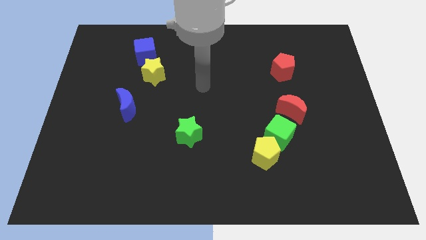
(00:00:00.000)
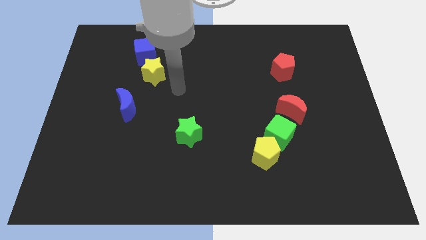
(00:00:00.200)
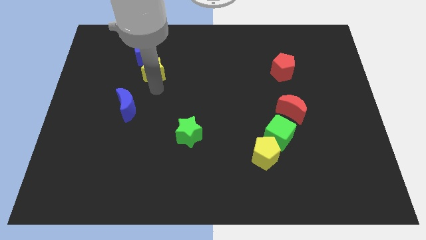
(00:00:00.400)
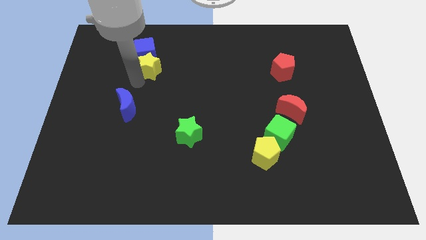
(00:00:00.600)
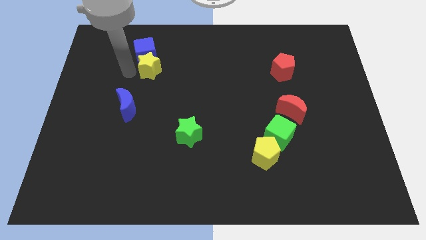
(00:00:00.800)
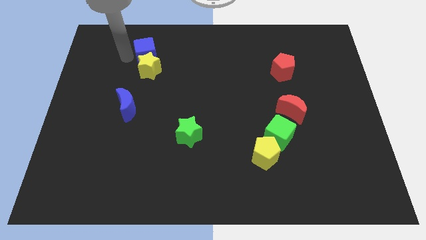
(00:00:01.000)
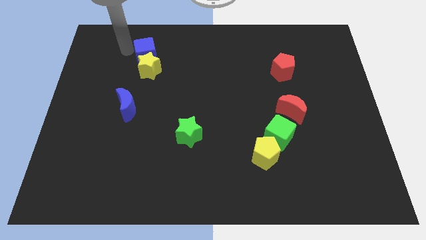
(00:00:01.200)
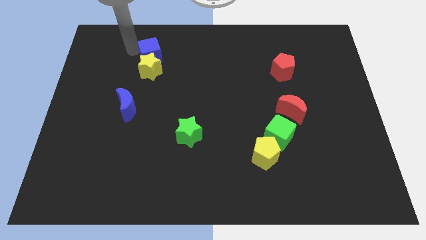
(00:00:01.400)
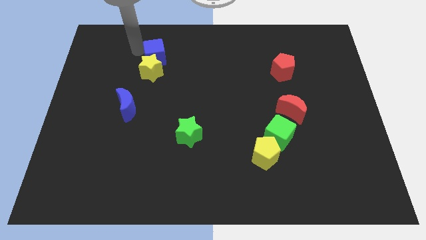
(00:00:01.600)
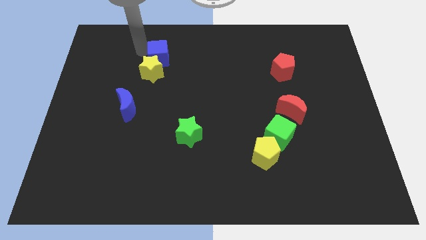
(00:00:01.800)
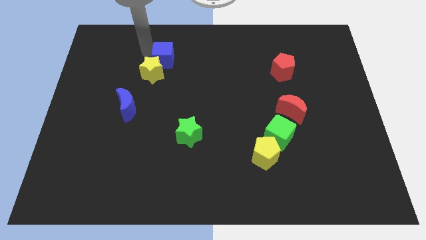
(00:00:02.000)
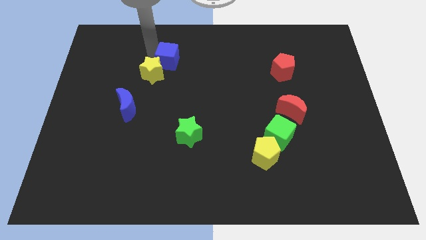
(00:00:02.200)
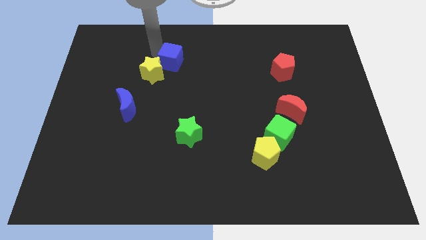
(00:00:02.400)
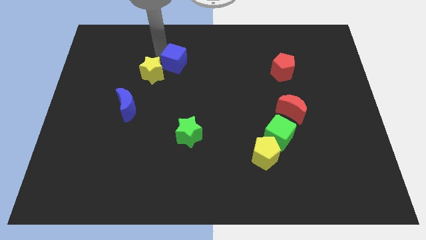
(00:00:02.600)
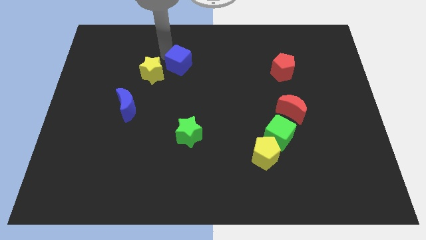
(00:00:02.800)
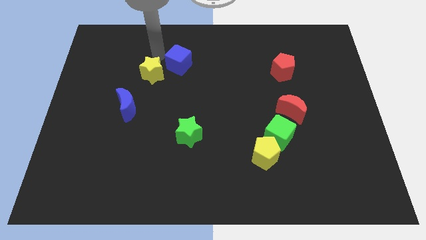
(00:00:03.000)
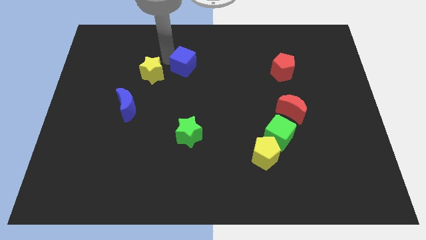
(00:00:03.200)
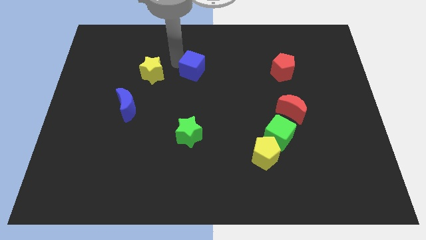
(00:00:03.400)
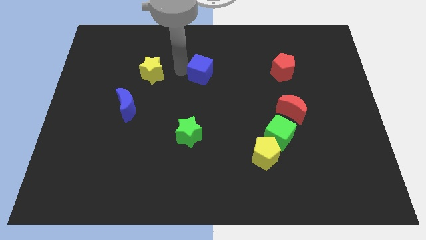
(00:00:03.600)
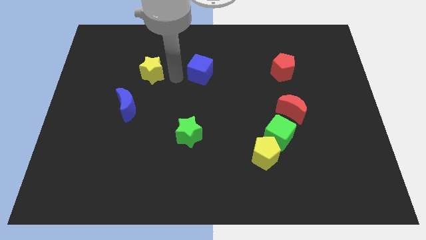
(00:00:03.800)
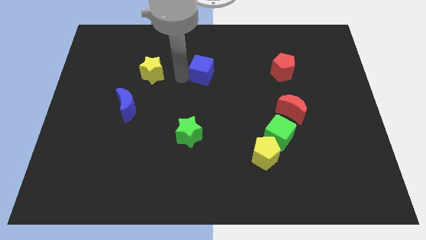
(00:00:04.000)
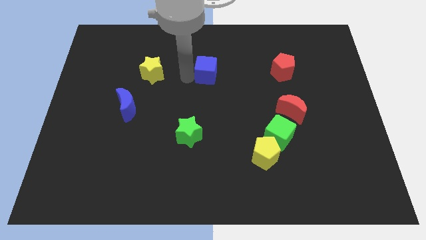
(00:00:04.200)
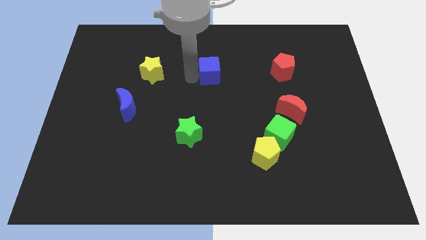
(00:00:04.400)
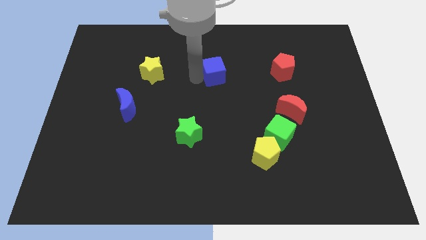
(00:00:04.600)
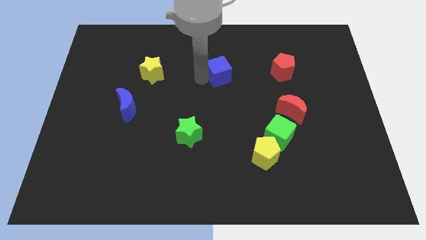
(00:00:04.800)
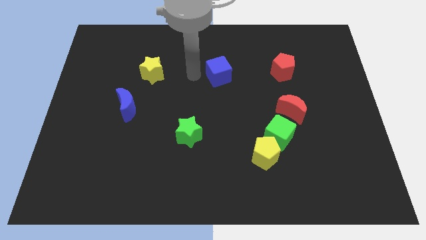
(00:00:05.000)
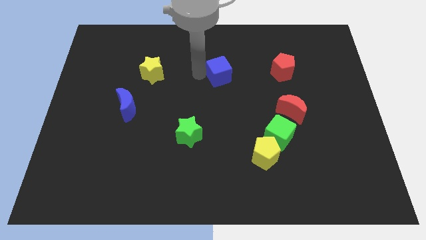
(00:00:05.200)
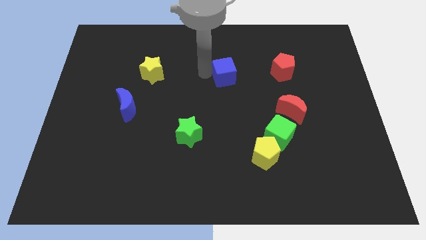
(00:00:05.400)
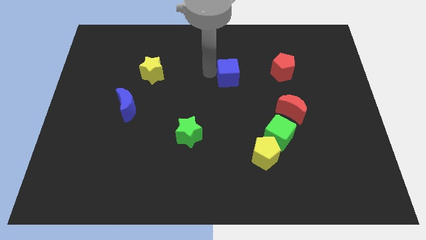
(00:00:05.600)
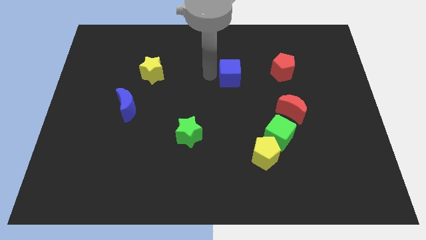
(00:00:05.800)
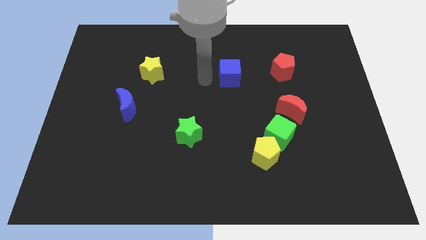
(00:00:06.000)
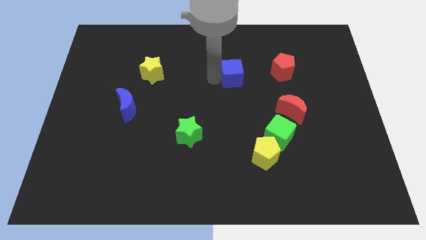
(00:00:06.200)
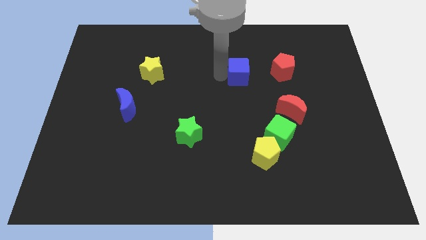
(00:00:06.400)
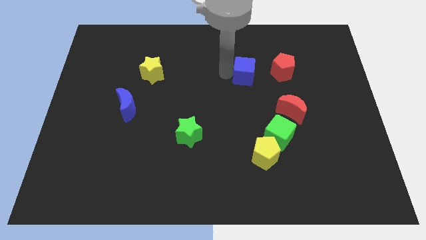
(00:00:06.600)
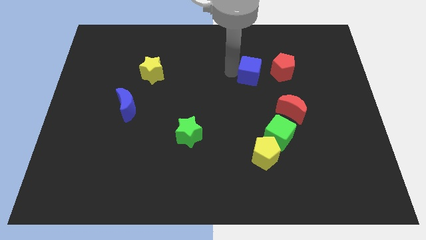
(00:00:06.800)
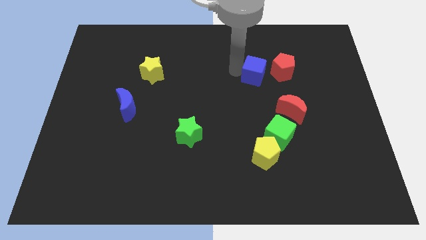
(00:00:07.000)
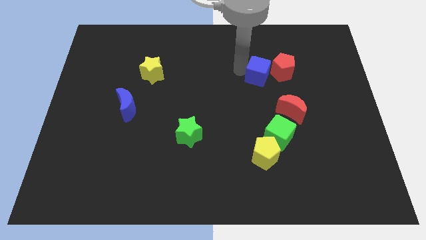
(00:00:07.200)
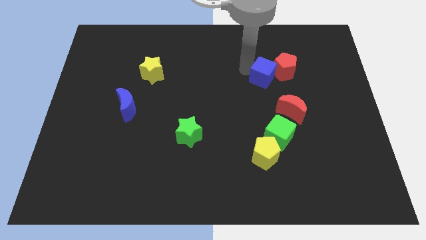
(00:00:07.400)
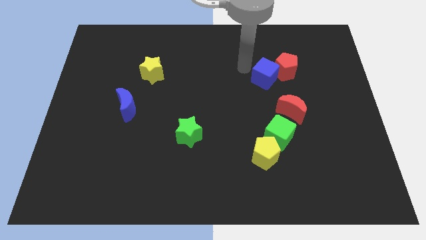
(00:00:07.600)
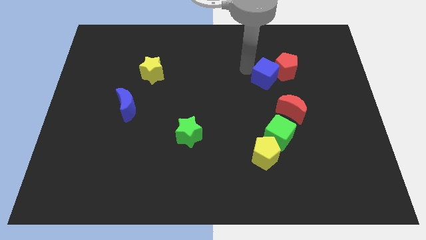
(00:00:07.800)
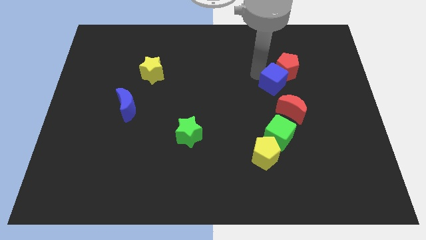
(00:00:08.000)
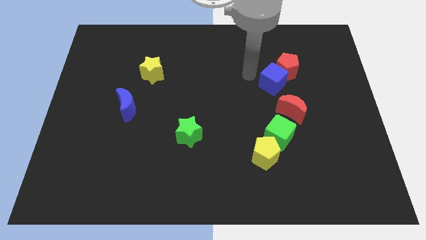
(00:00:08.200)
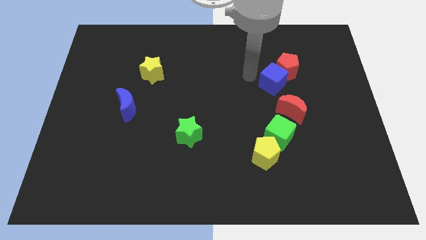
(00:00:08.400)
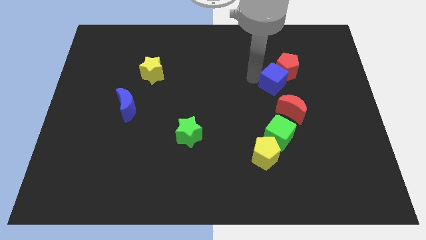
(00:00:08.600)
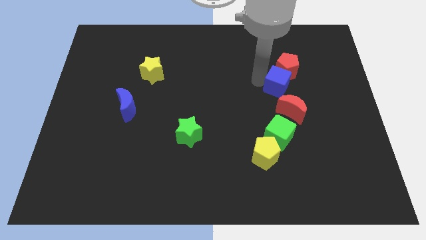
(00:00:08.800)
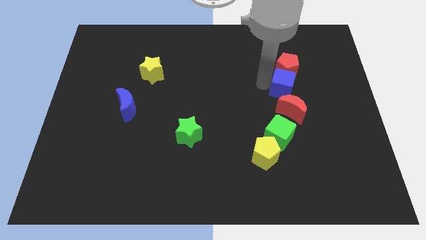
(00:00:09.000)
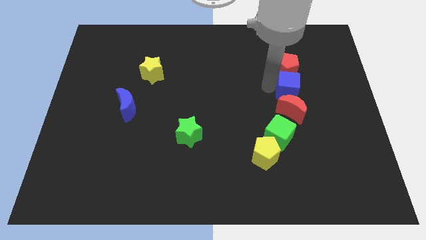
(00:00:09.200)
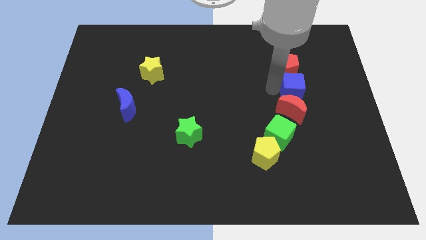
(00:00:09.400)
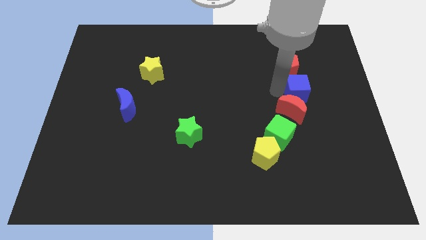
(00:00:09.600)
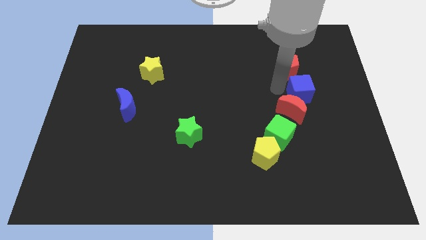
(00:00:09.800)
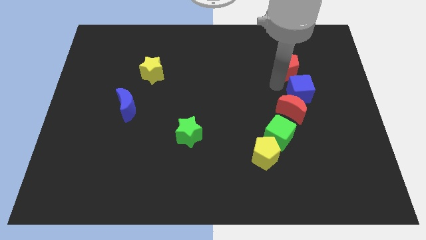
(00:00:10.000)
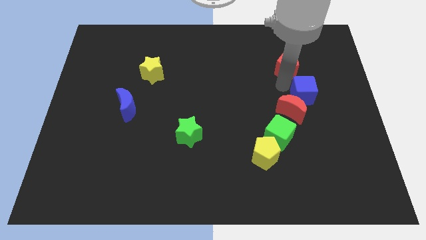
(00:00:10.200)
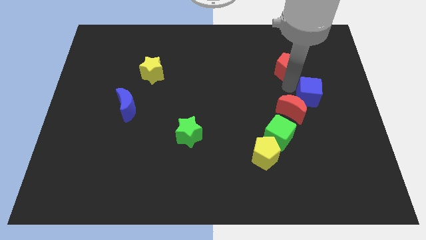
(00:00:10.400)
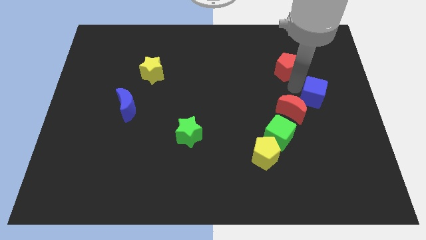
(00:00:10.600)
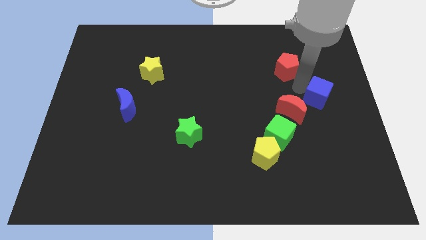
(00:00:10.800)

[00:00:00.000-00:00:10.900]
push the blue cube to the right side

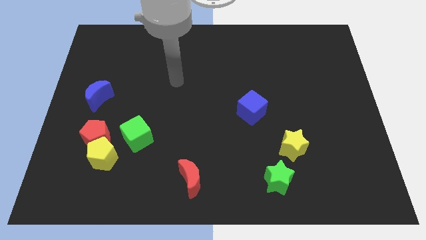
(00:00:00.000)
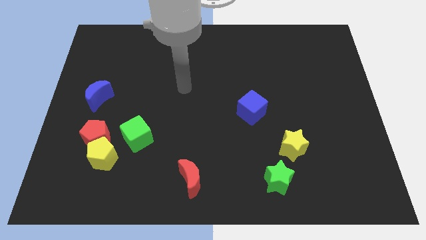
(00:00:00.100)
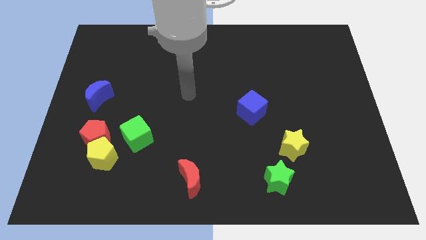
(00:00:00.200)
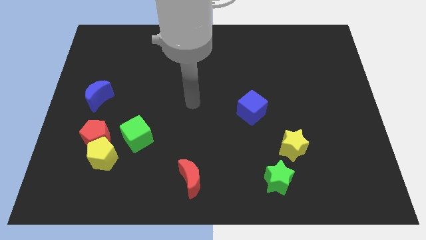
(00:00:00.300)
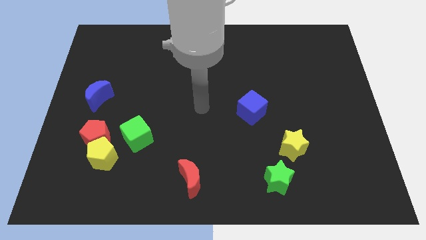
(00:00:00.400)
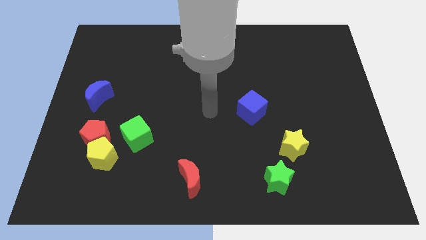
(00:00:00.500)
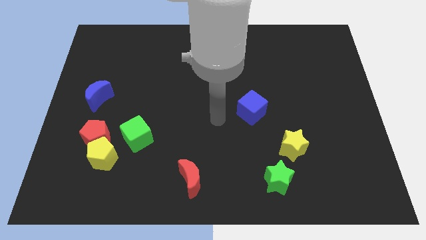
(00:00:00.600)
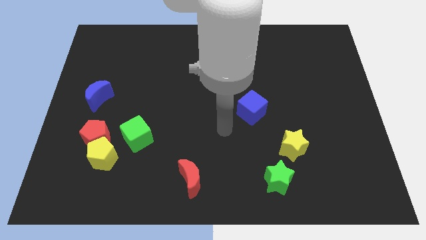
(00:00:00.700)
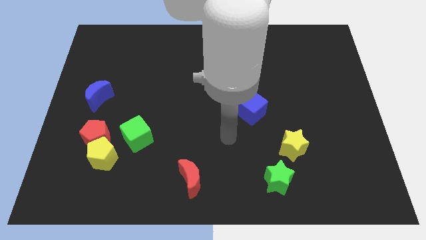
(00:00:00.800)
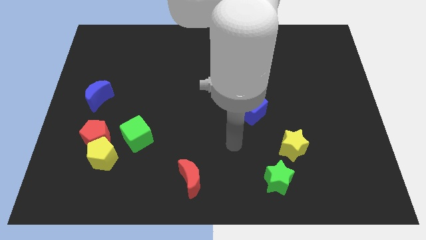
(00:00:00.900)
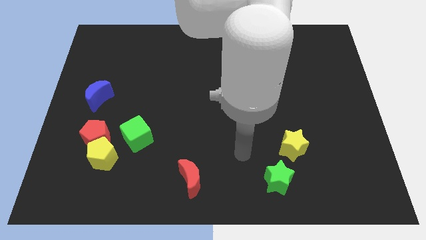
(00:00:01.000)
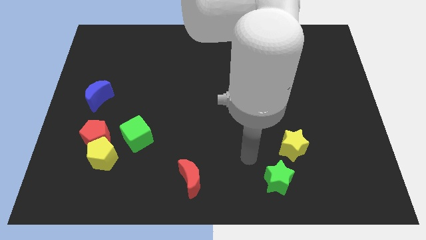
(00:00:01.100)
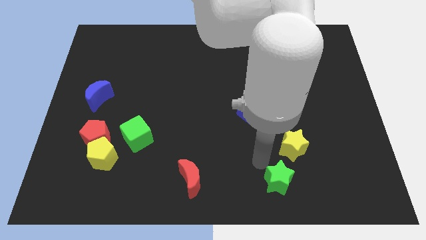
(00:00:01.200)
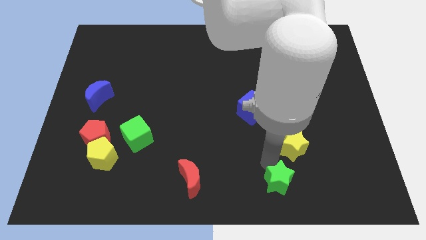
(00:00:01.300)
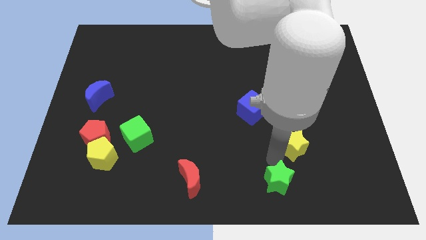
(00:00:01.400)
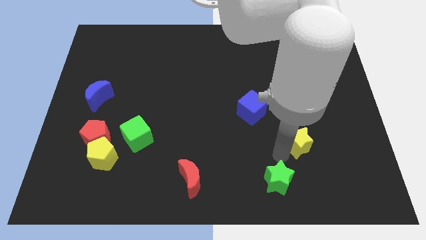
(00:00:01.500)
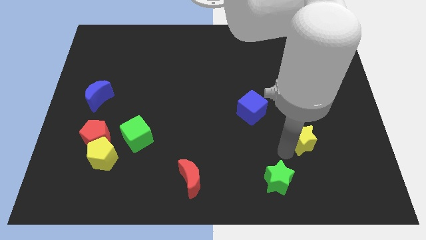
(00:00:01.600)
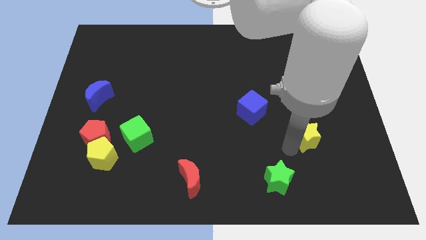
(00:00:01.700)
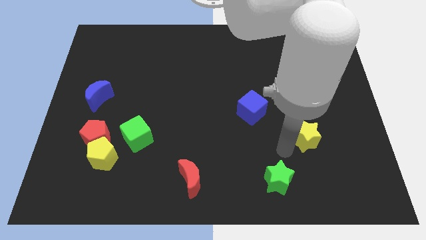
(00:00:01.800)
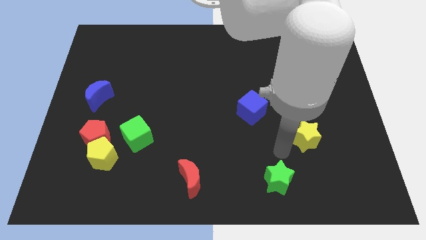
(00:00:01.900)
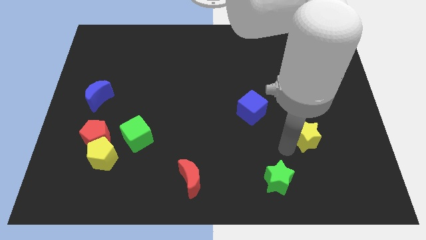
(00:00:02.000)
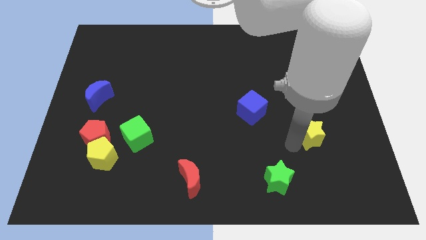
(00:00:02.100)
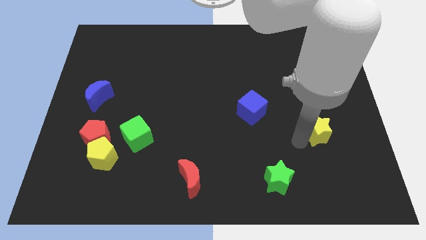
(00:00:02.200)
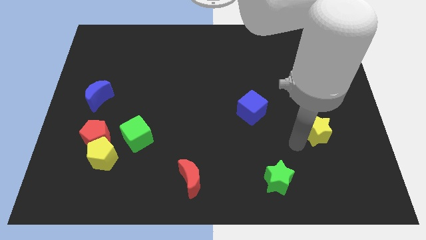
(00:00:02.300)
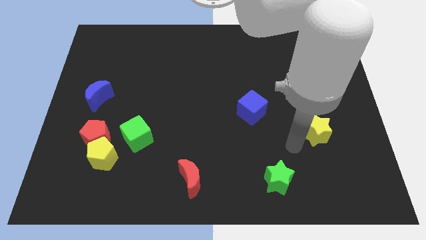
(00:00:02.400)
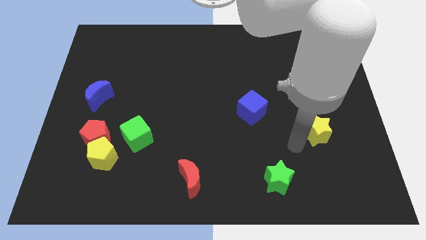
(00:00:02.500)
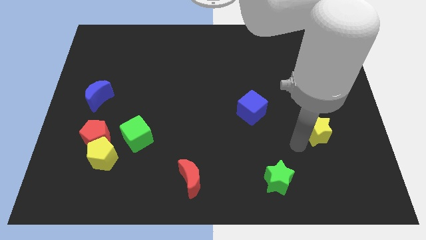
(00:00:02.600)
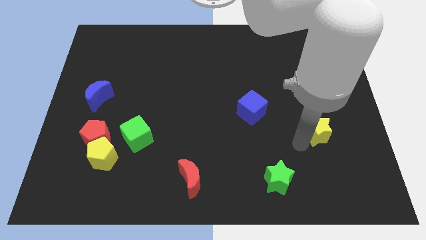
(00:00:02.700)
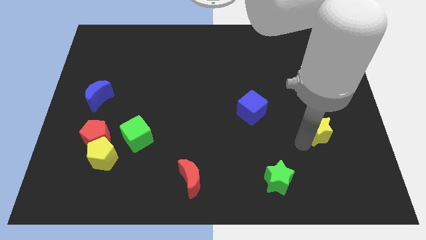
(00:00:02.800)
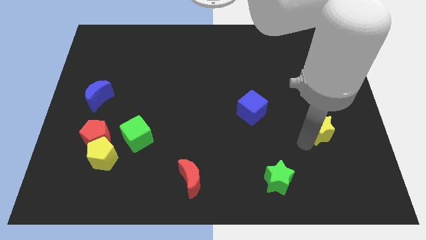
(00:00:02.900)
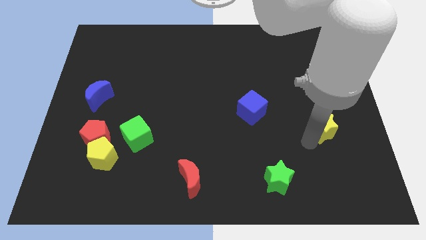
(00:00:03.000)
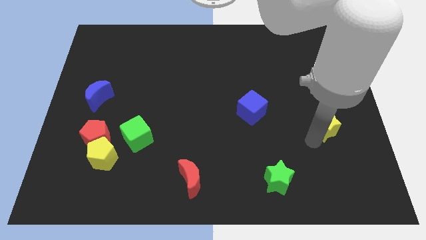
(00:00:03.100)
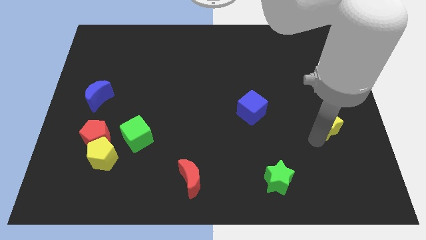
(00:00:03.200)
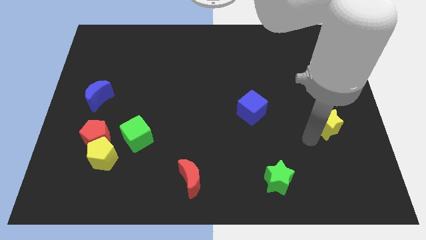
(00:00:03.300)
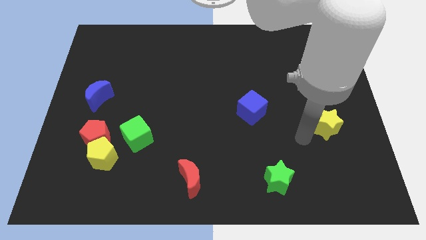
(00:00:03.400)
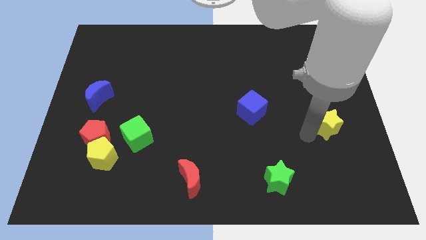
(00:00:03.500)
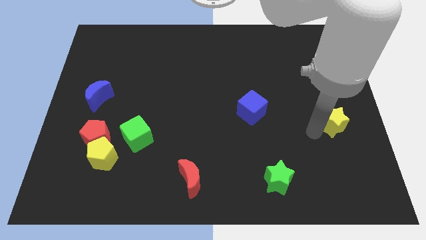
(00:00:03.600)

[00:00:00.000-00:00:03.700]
push the yellow star to the center right
